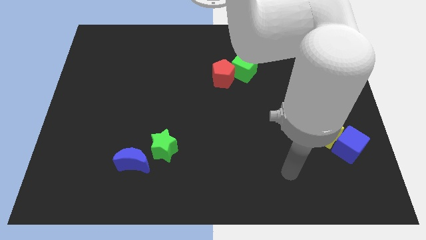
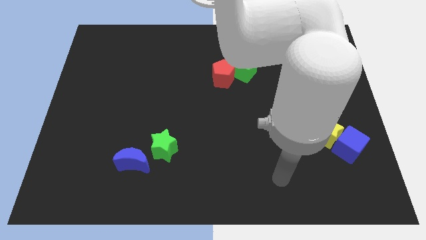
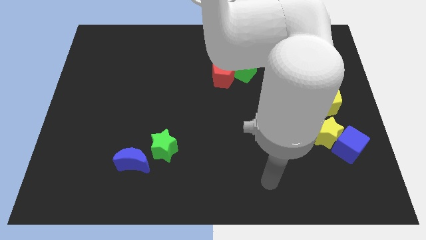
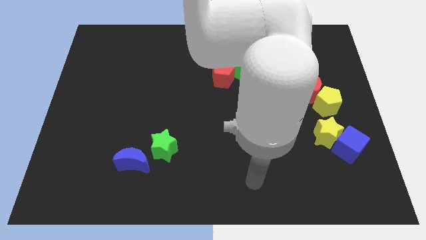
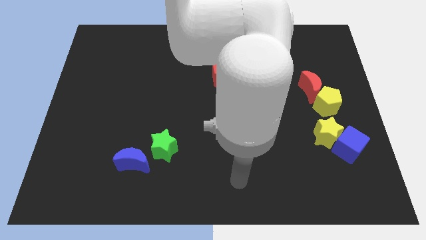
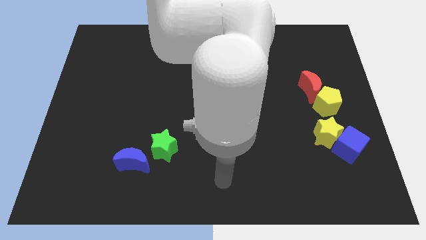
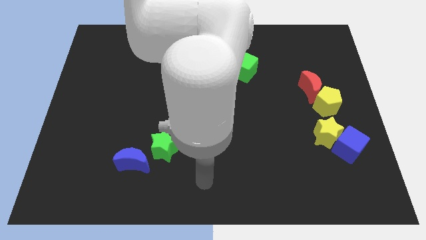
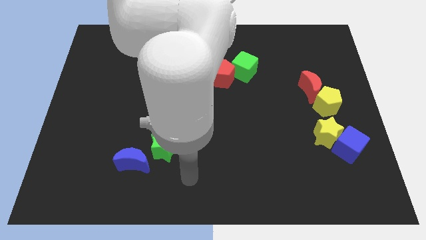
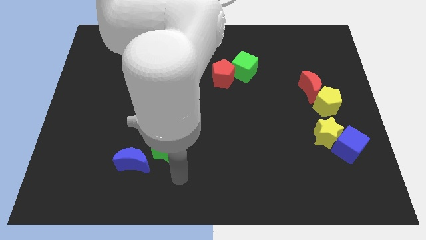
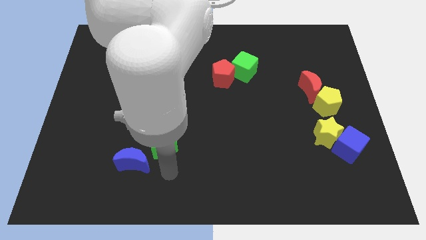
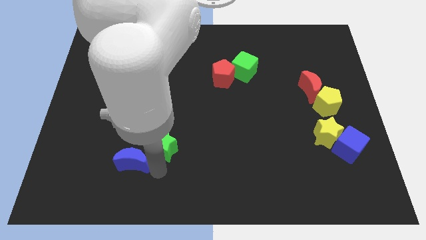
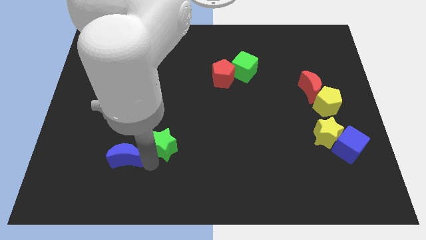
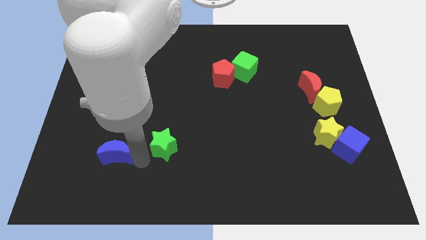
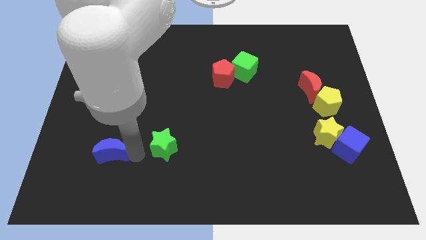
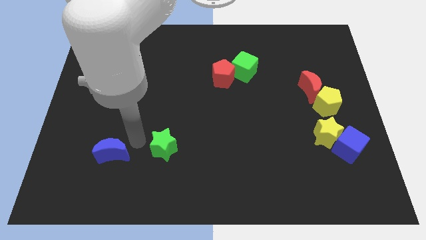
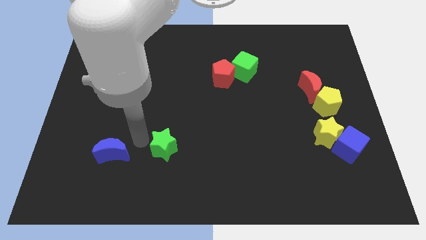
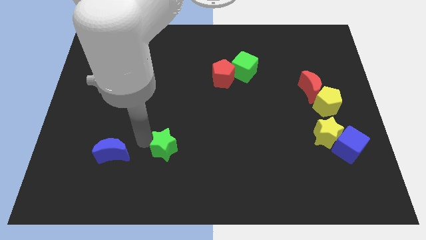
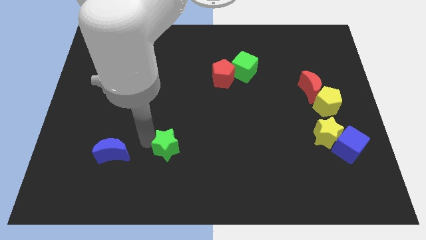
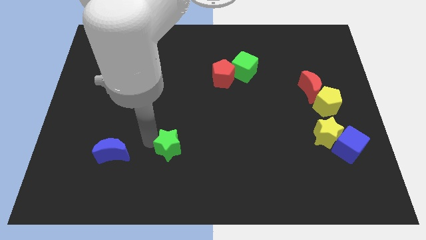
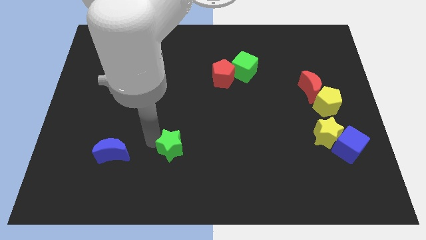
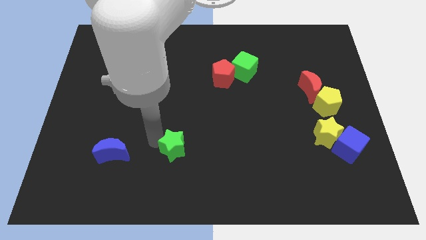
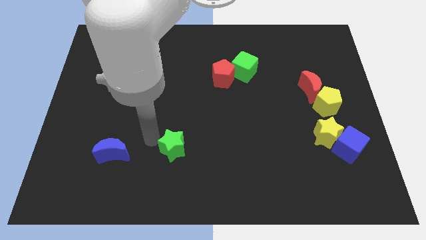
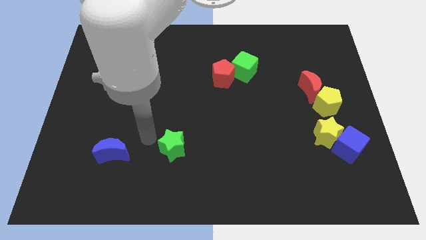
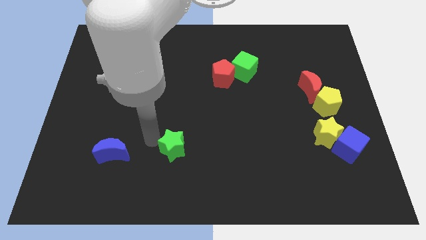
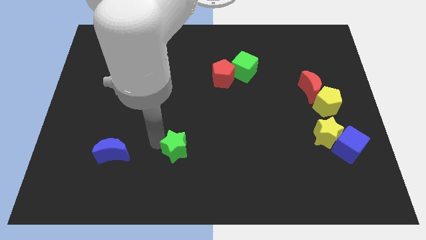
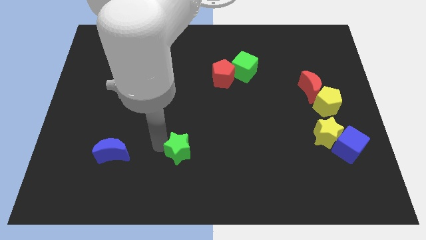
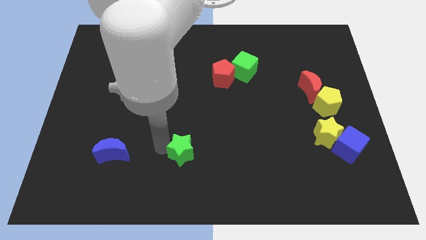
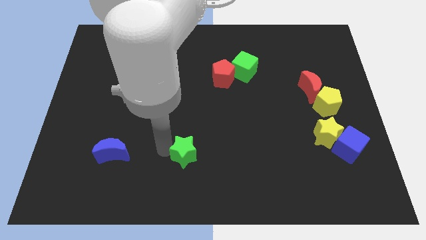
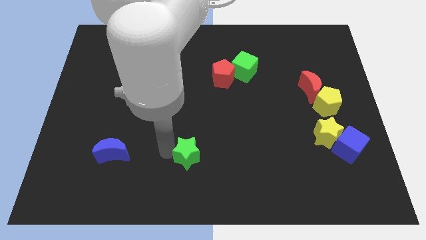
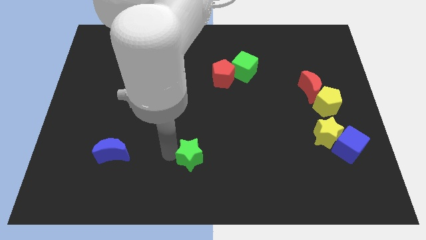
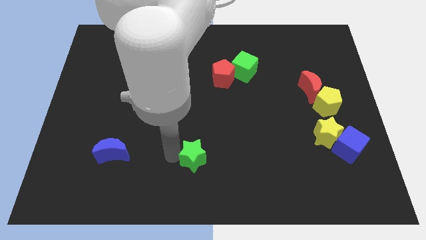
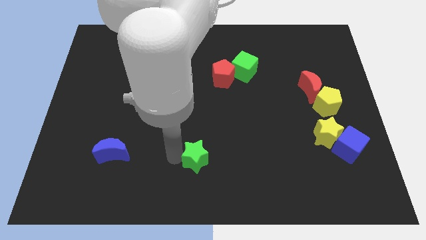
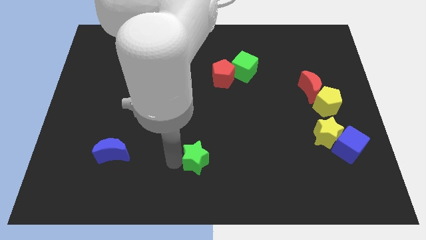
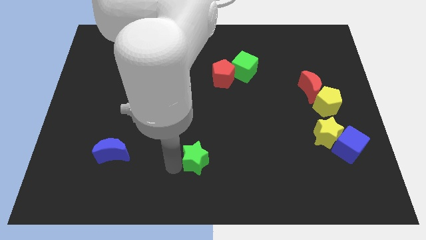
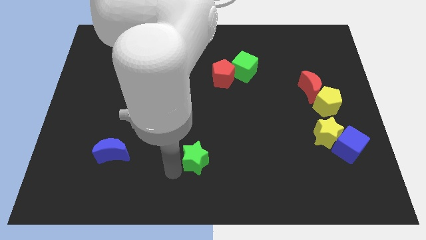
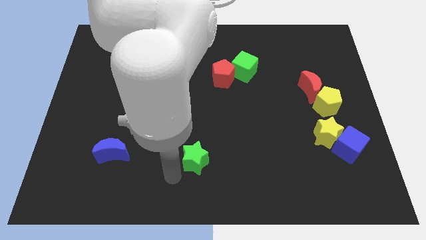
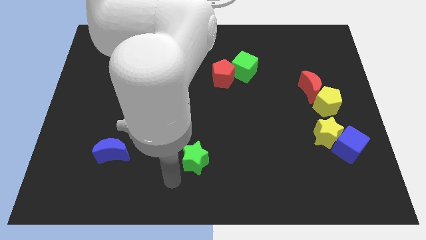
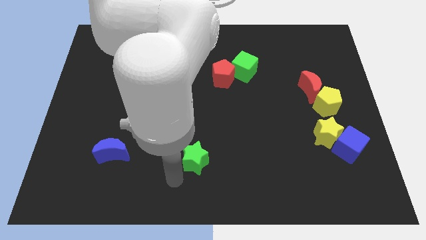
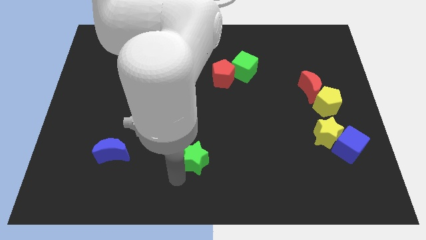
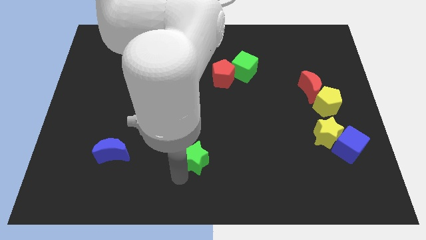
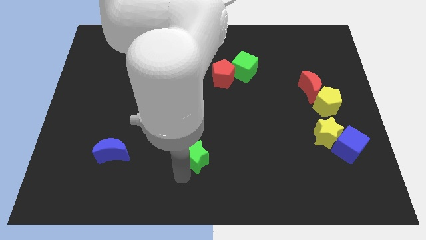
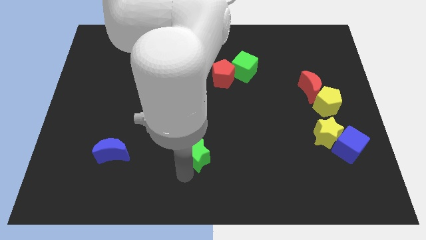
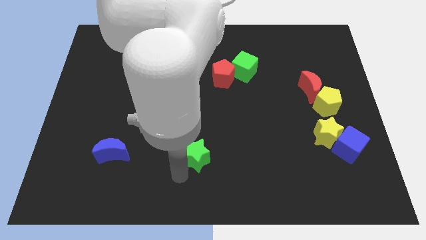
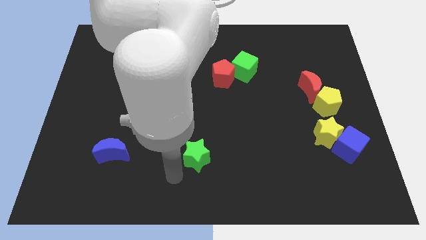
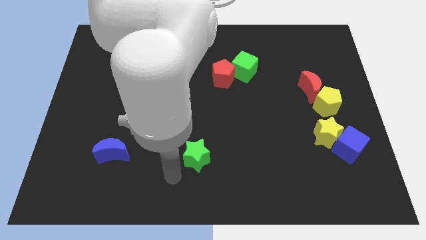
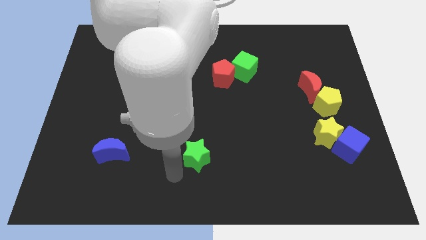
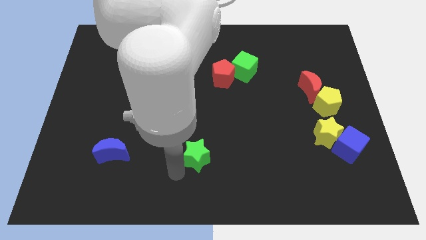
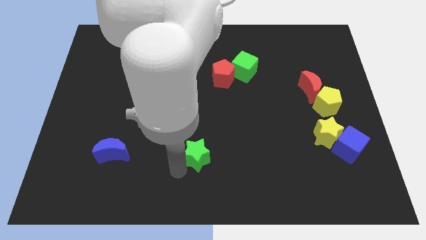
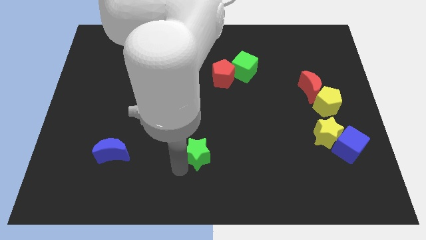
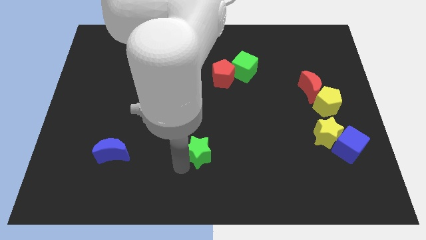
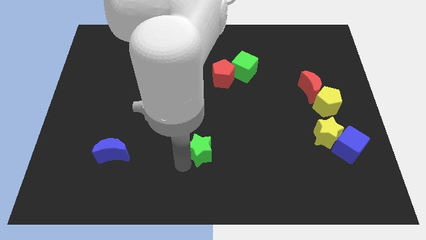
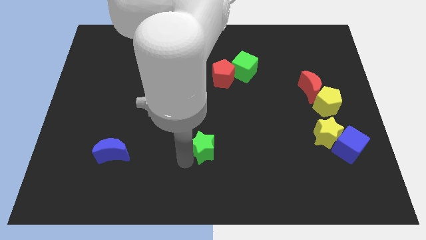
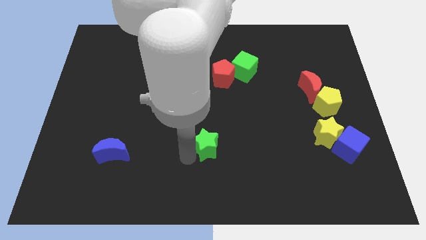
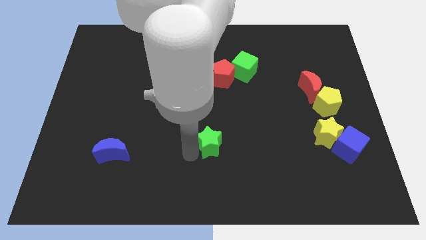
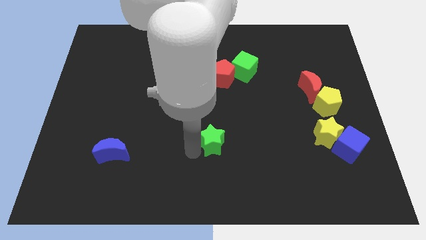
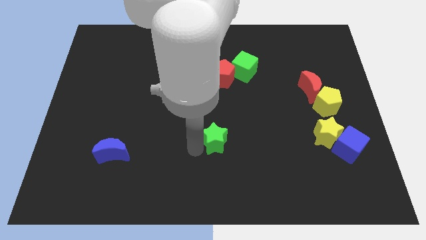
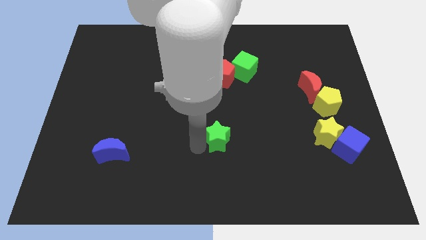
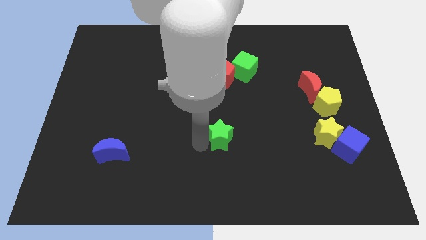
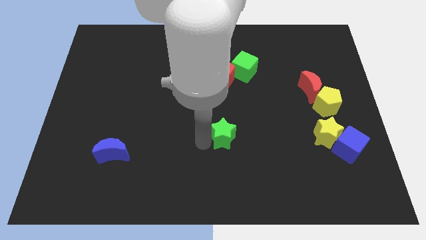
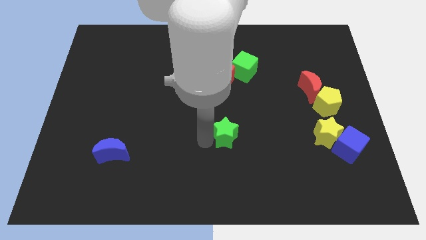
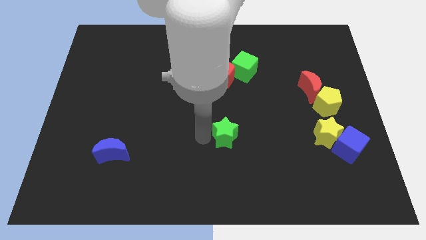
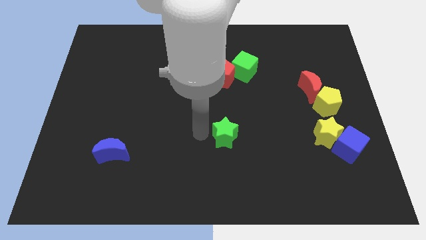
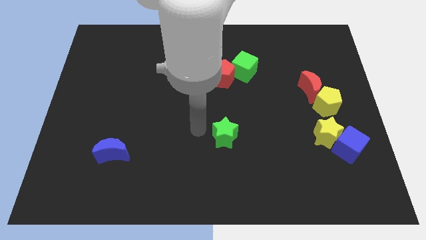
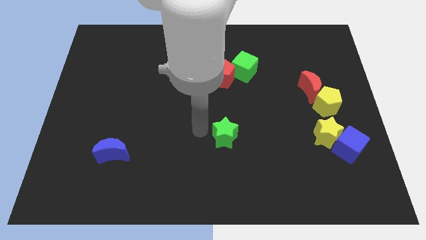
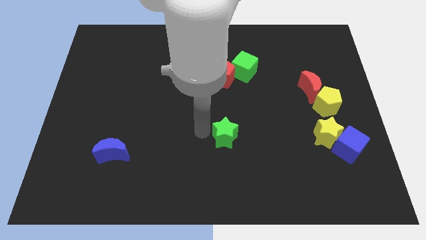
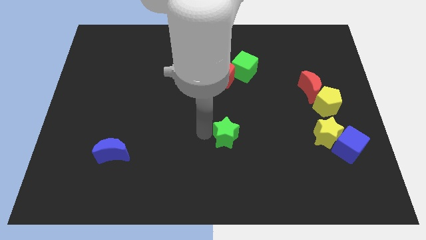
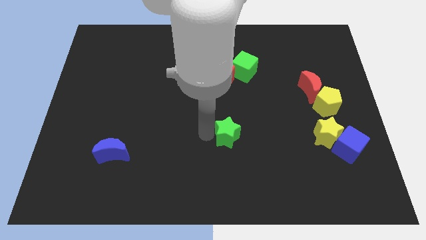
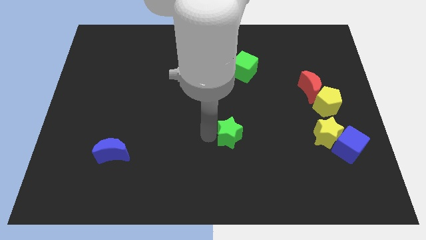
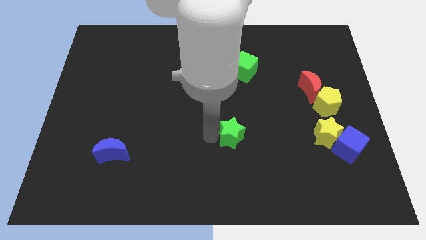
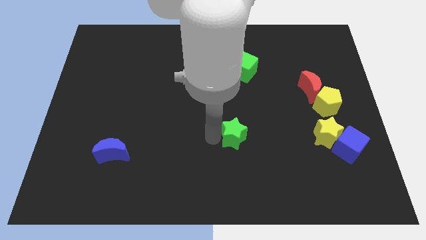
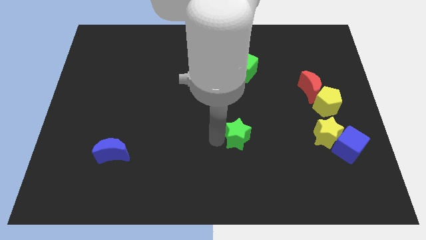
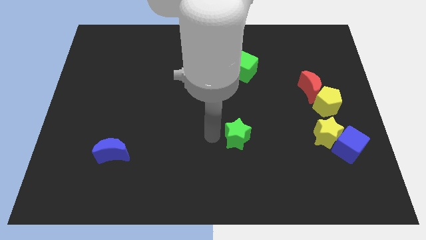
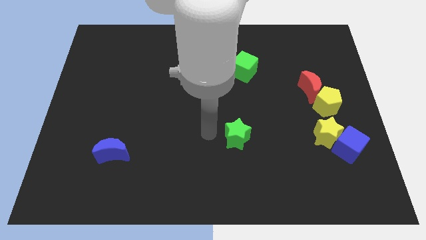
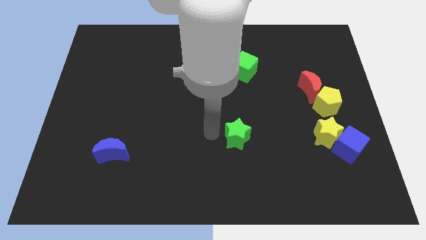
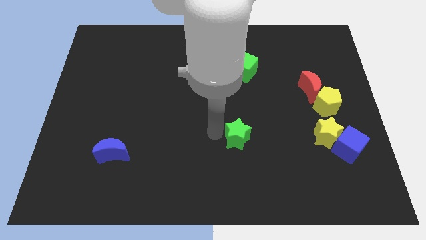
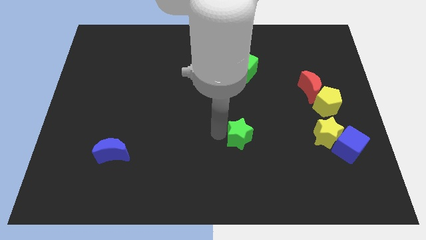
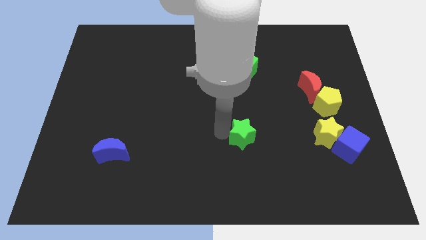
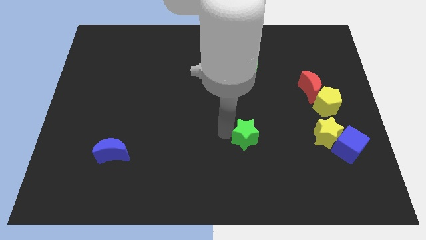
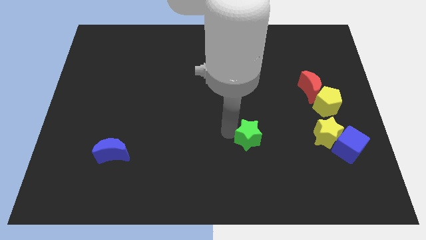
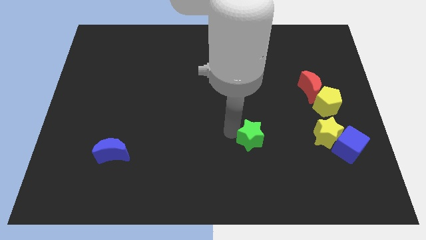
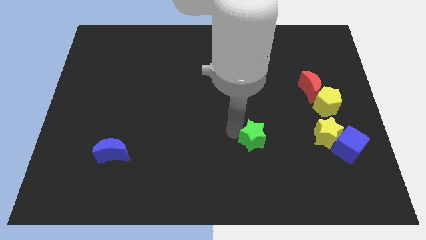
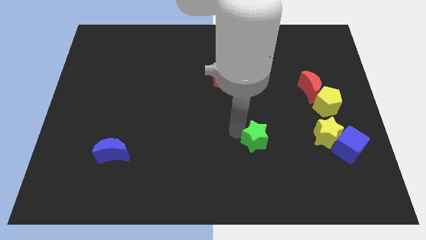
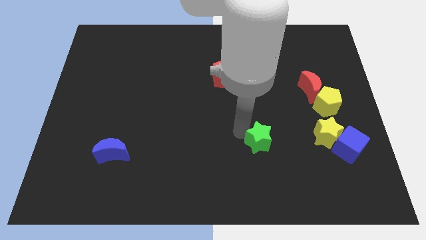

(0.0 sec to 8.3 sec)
move the green star to the right
